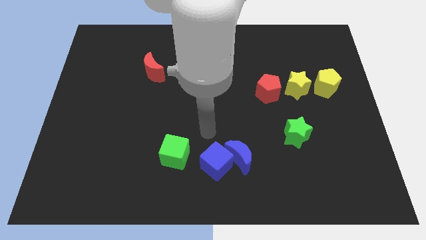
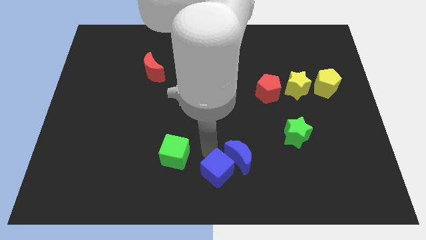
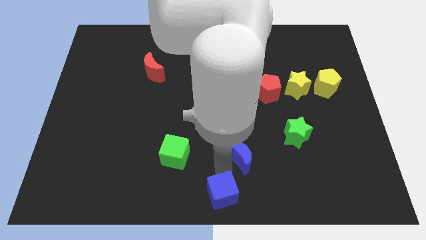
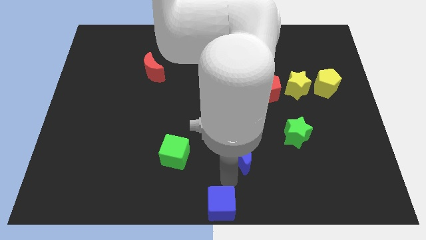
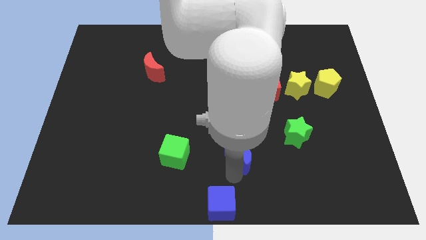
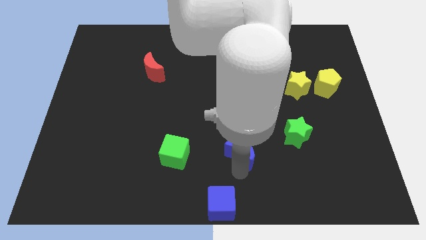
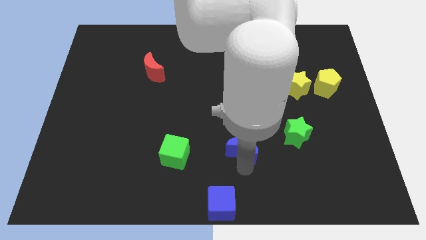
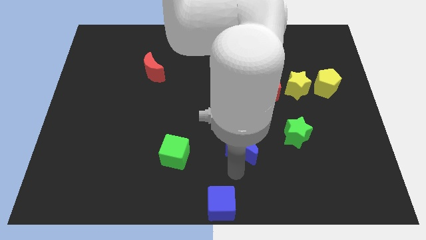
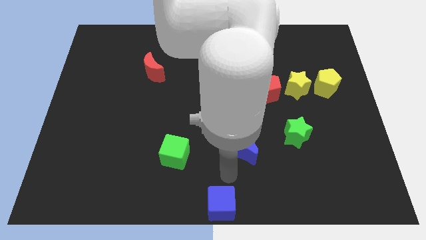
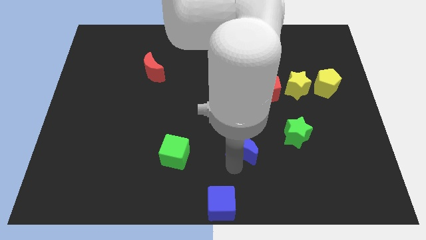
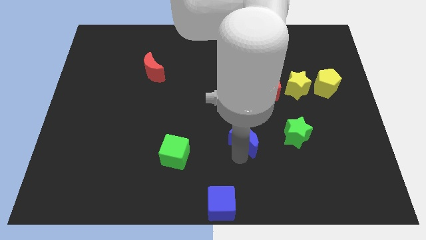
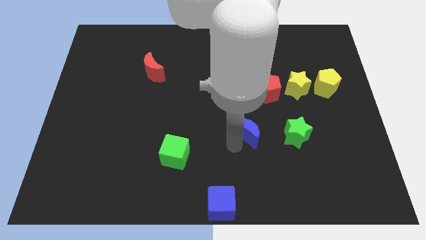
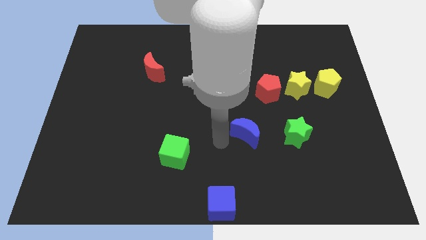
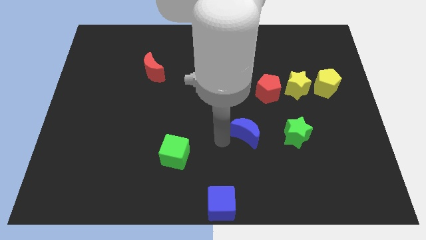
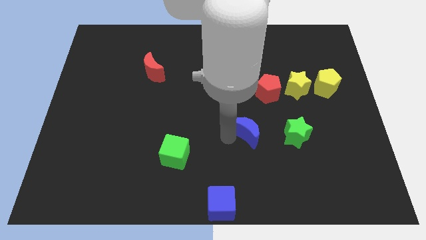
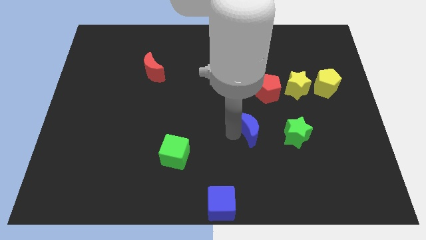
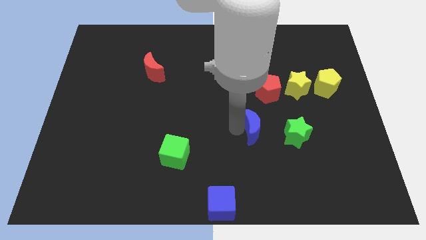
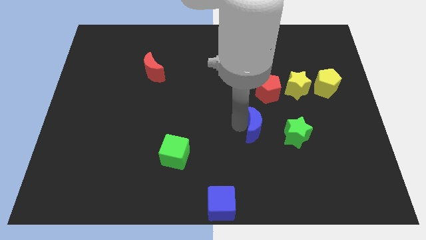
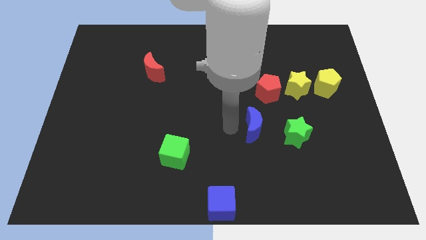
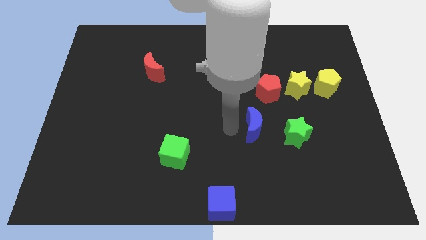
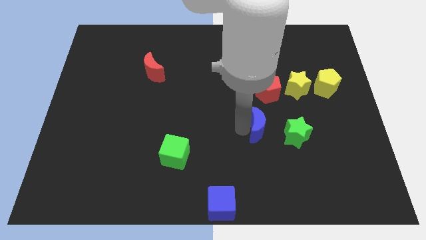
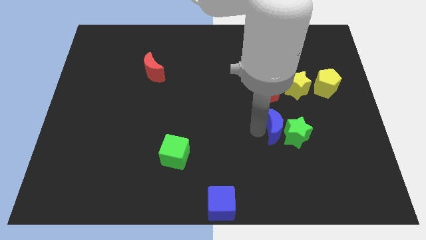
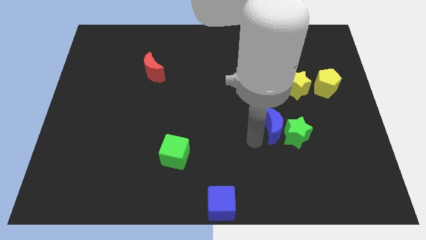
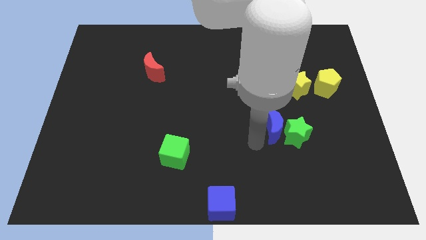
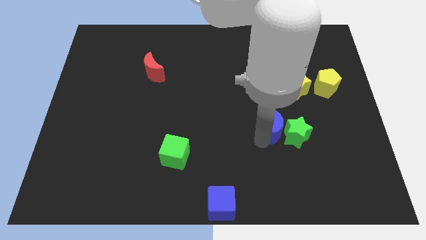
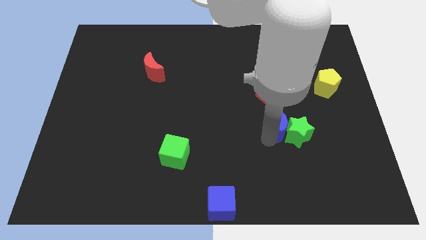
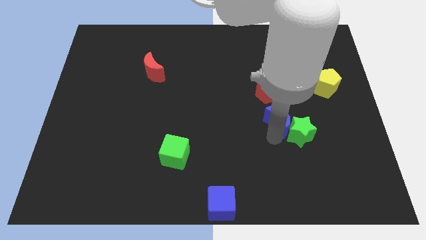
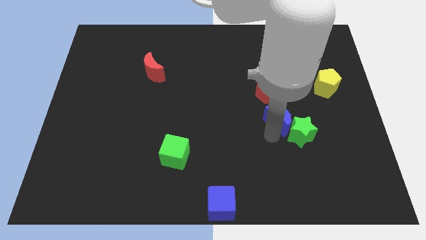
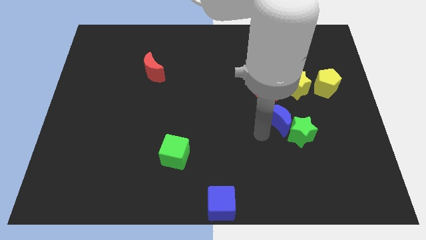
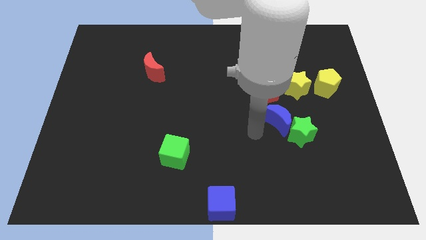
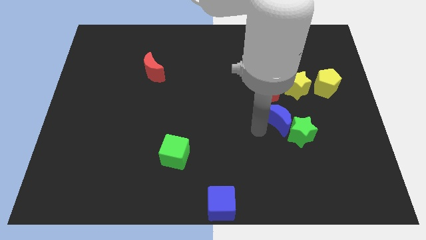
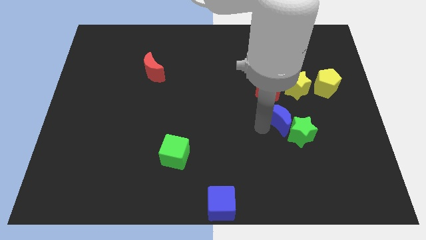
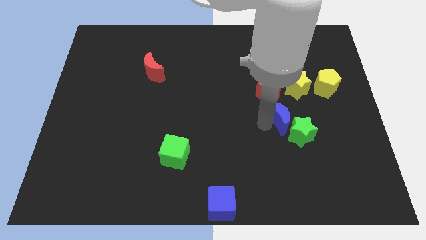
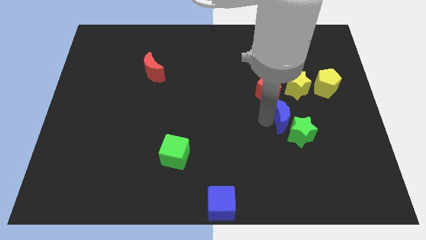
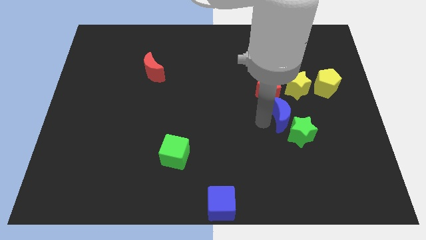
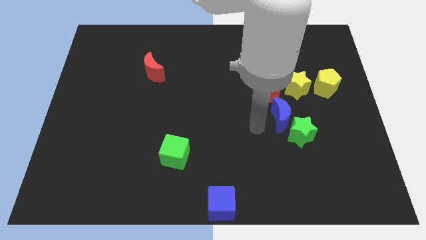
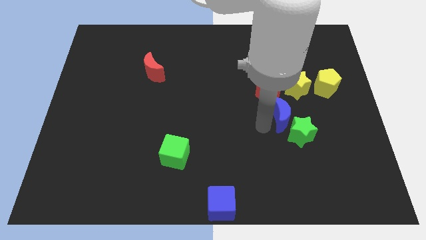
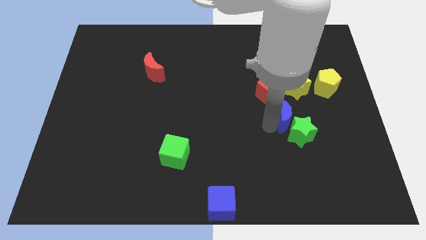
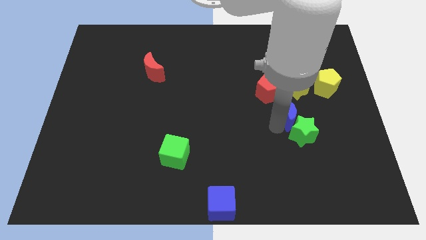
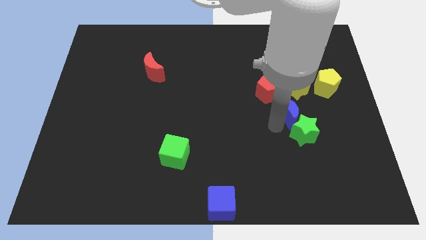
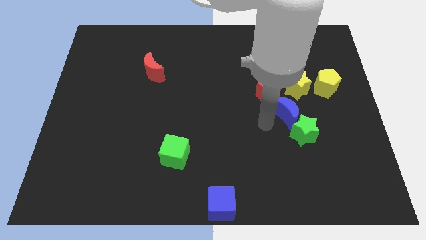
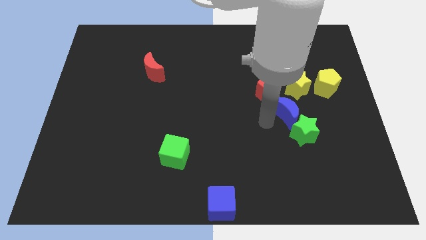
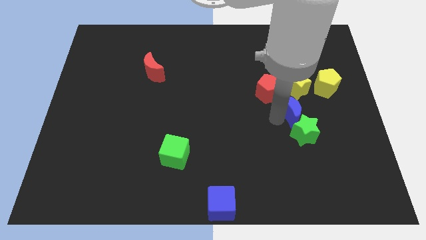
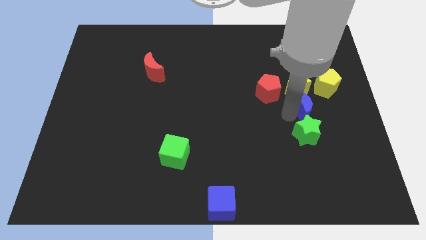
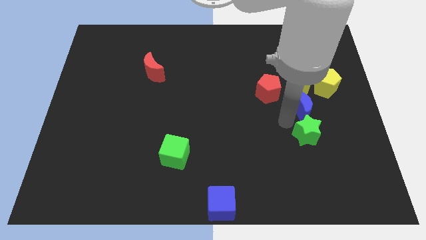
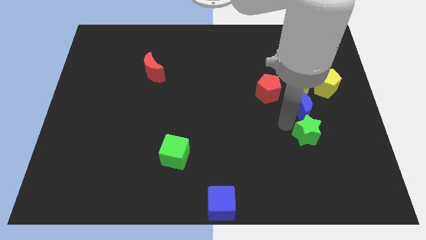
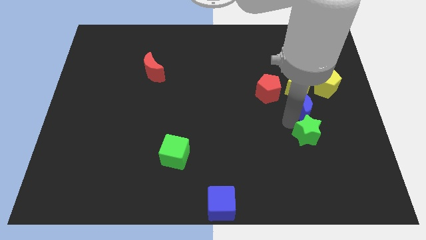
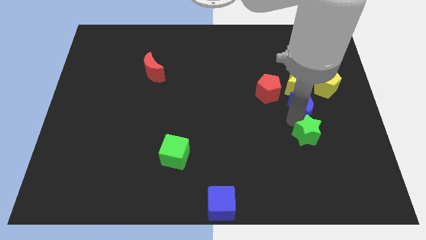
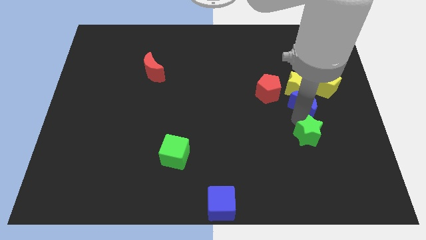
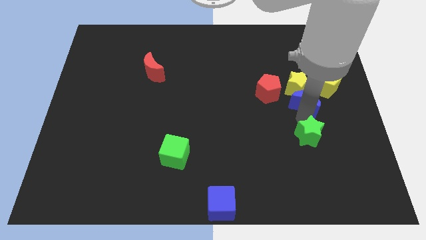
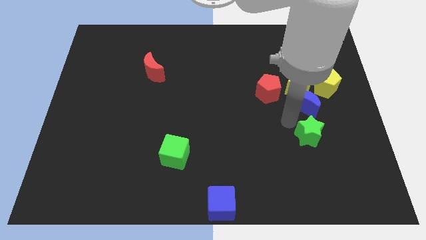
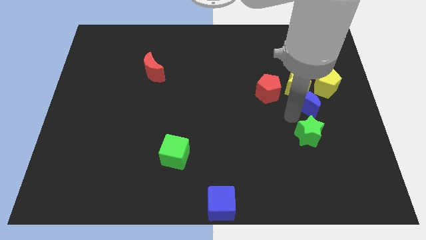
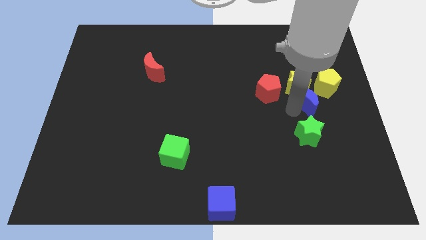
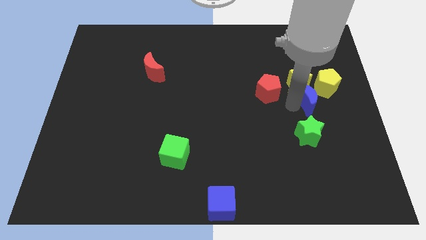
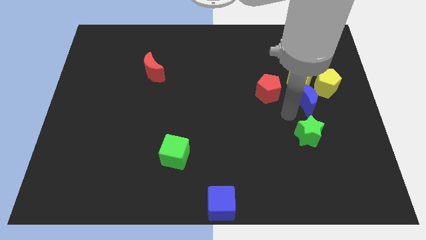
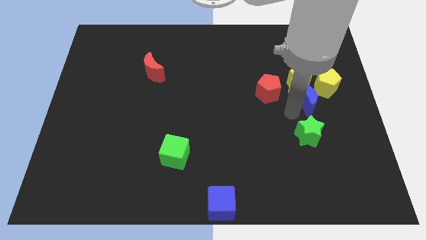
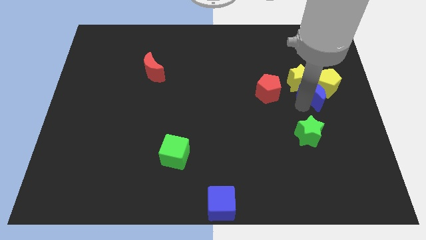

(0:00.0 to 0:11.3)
push the blue moon towards the yellow pentagon

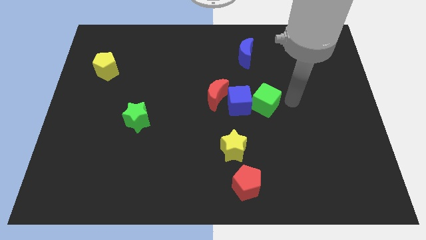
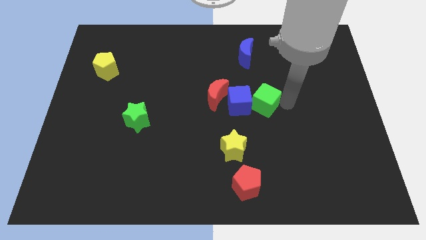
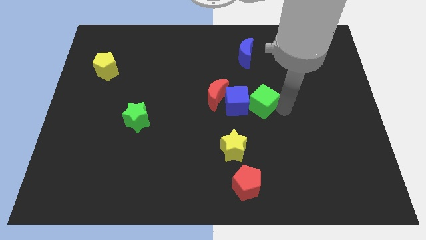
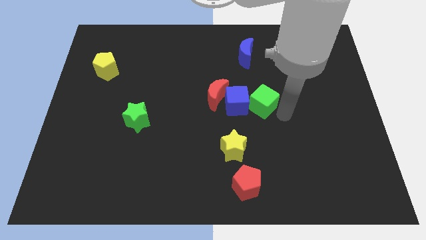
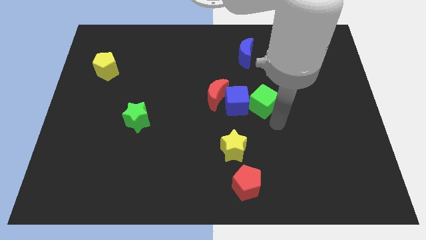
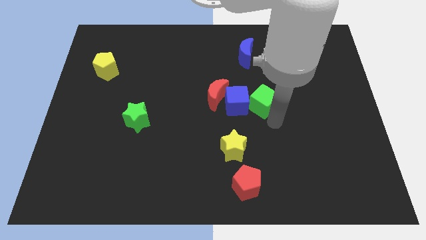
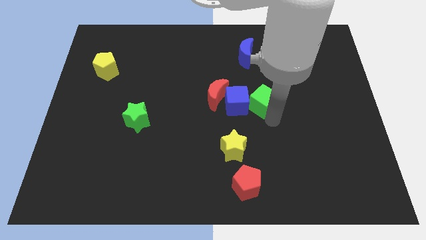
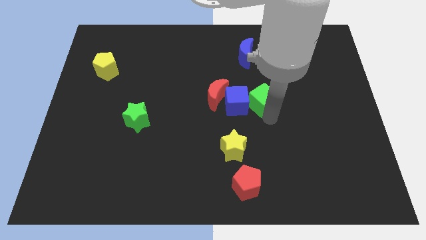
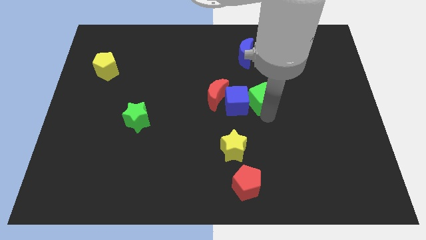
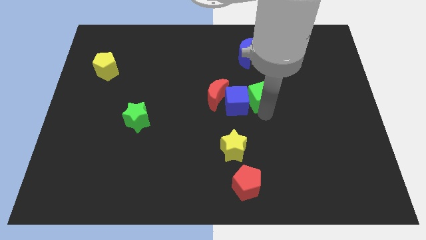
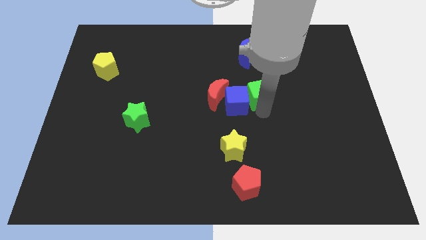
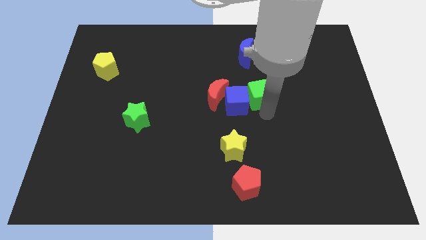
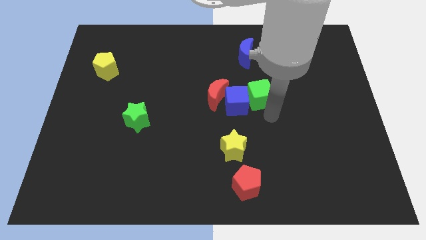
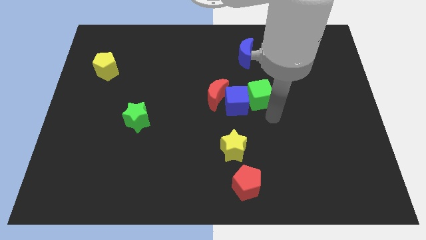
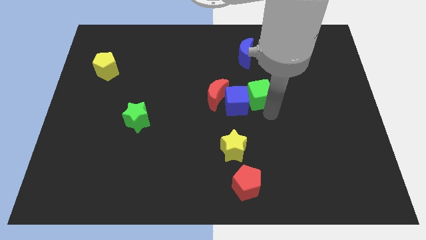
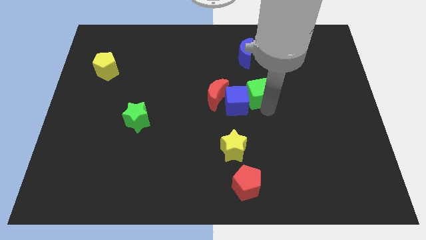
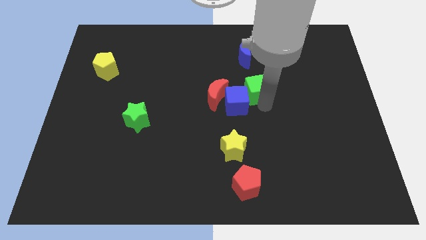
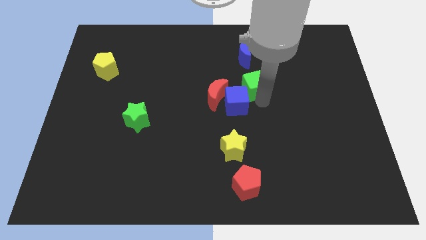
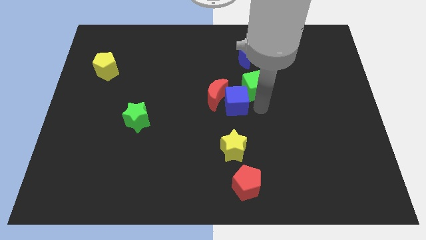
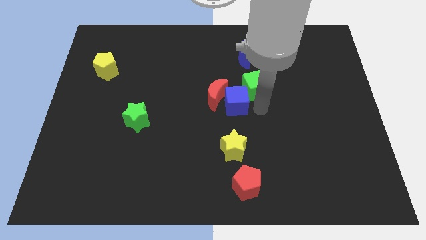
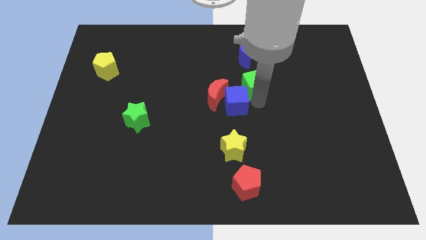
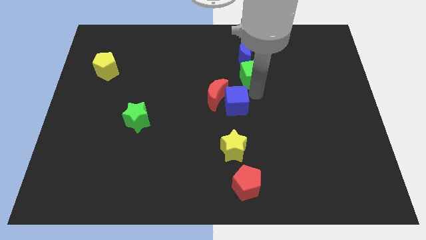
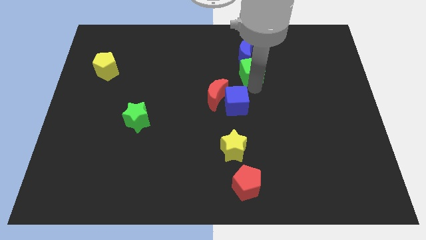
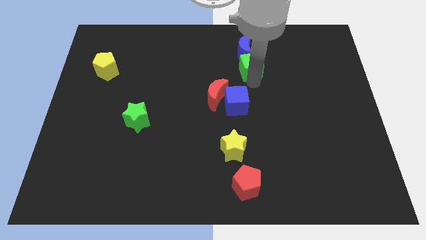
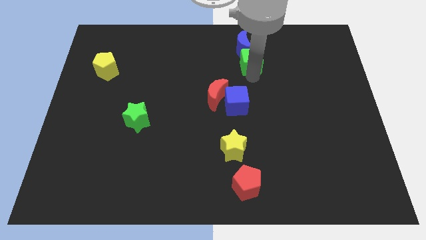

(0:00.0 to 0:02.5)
slide the green cube towards the blue moon
